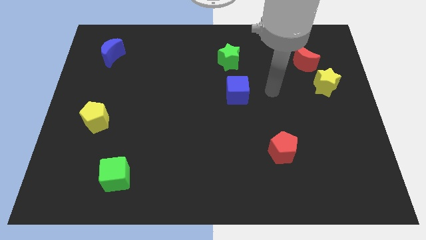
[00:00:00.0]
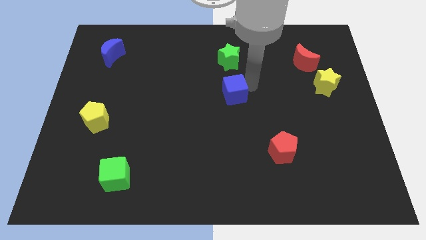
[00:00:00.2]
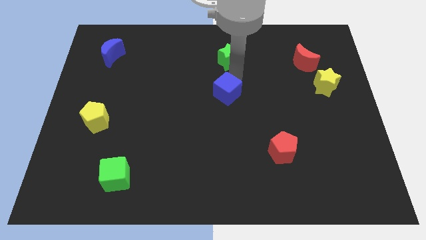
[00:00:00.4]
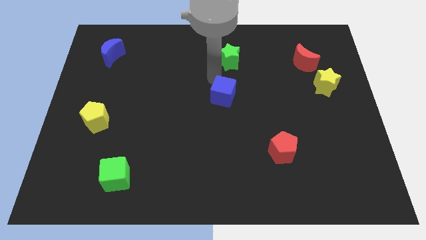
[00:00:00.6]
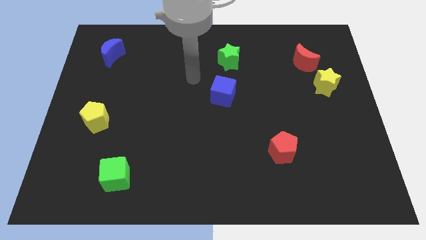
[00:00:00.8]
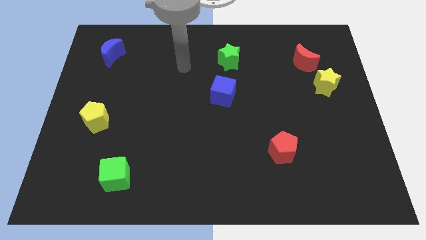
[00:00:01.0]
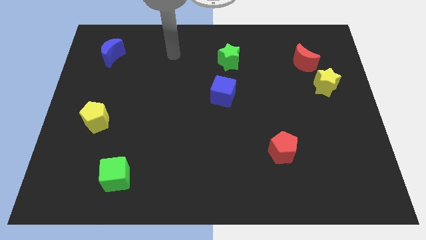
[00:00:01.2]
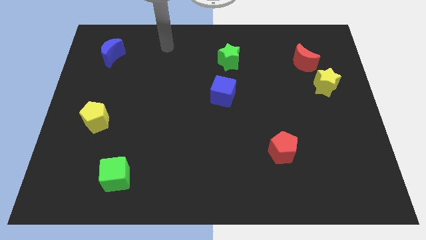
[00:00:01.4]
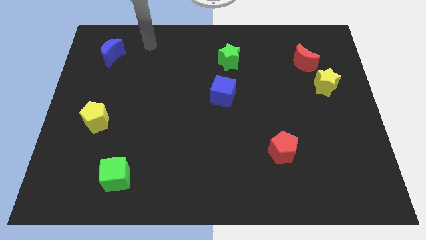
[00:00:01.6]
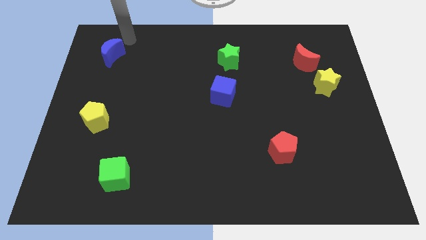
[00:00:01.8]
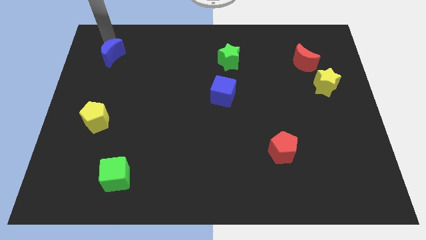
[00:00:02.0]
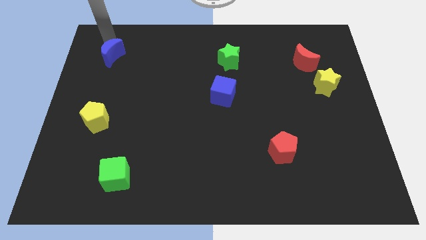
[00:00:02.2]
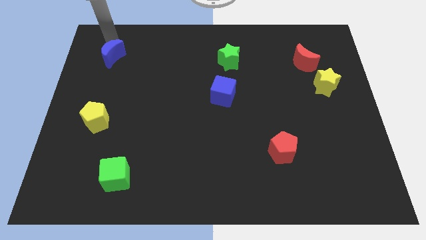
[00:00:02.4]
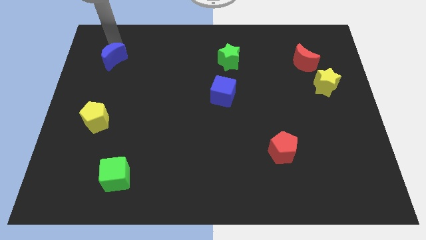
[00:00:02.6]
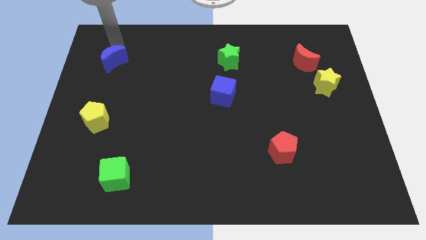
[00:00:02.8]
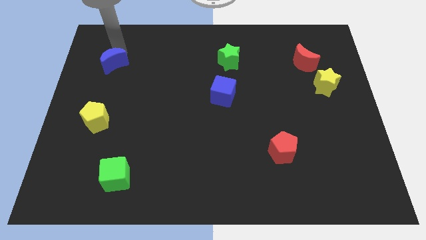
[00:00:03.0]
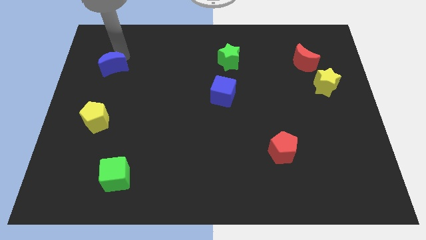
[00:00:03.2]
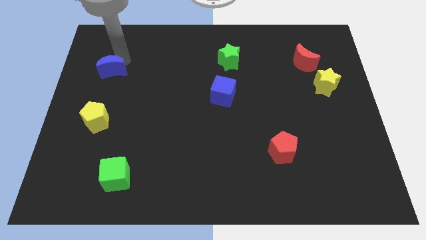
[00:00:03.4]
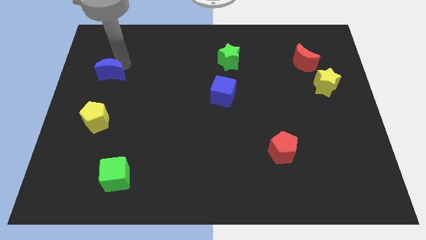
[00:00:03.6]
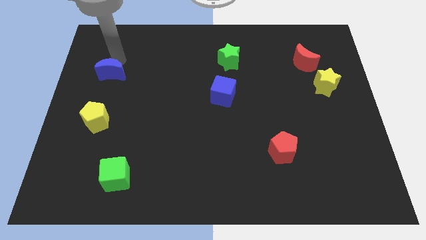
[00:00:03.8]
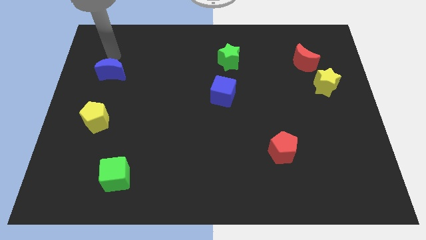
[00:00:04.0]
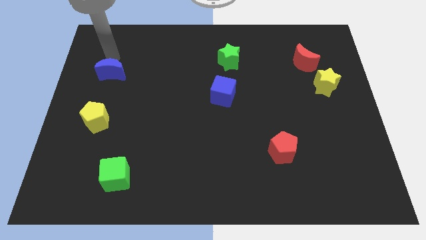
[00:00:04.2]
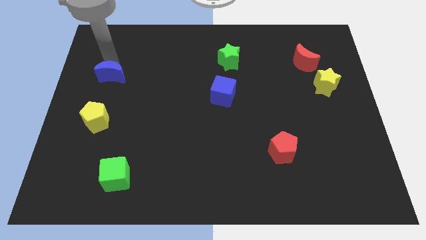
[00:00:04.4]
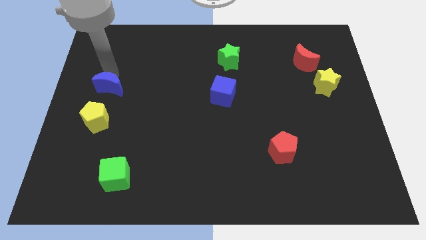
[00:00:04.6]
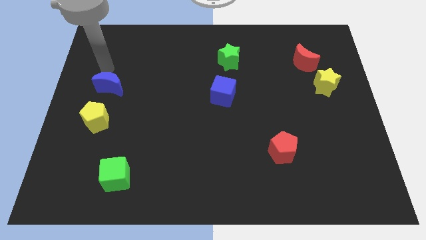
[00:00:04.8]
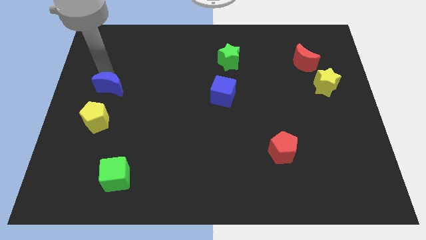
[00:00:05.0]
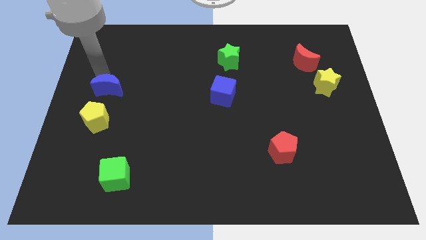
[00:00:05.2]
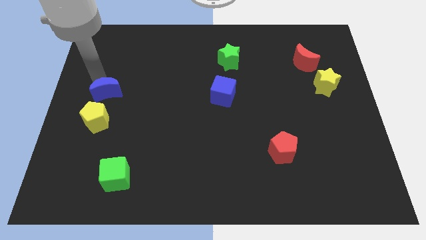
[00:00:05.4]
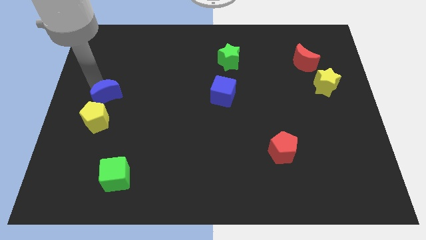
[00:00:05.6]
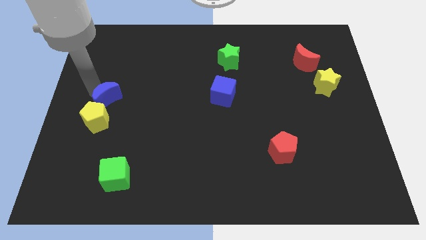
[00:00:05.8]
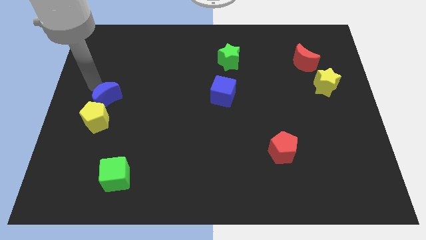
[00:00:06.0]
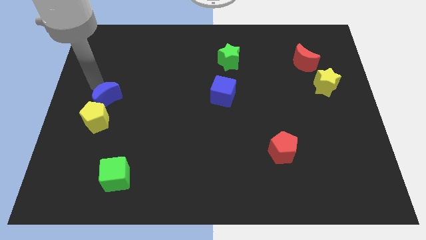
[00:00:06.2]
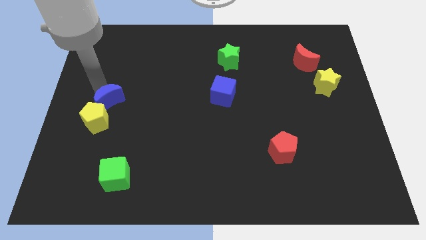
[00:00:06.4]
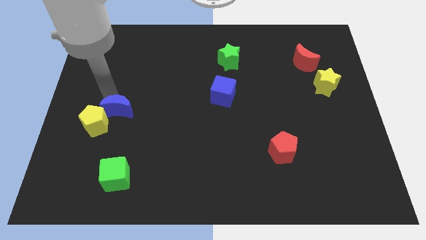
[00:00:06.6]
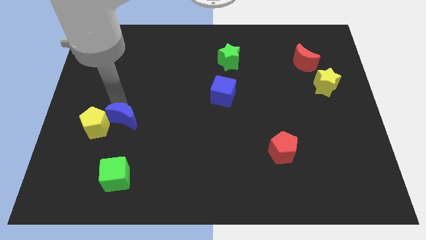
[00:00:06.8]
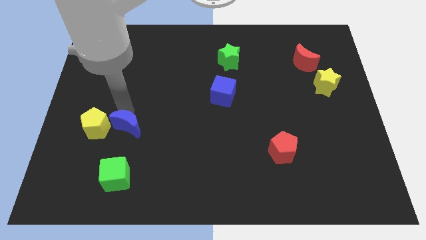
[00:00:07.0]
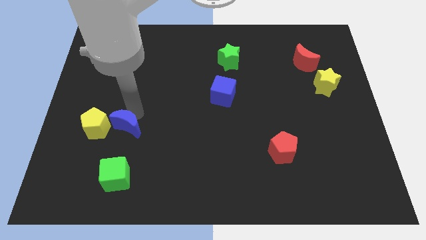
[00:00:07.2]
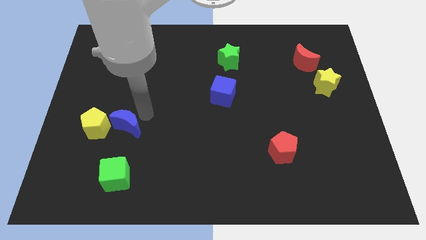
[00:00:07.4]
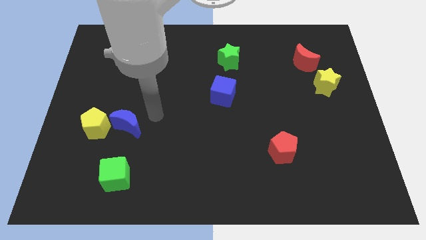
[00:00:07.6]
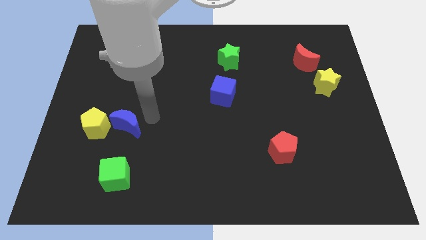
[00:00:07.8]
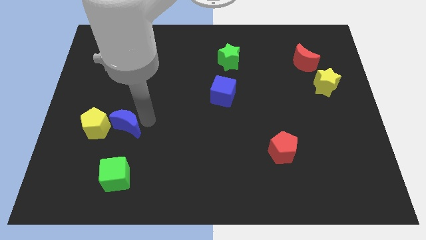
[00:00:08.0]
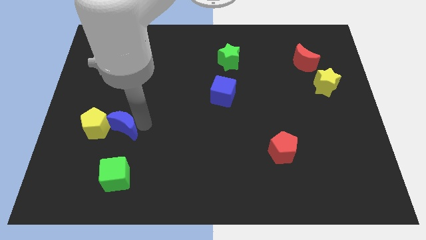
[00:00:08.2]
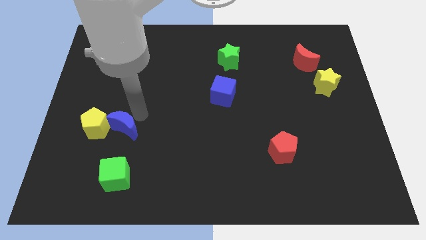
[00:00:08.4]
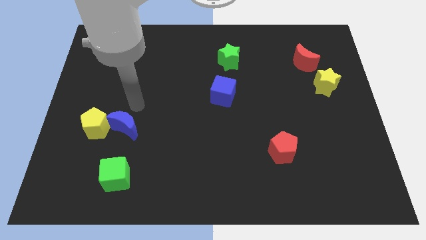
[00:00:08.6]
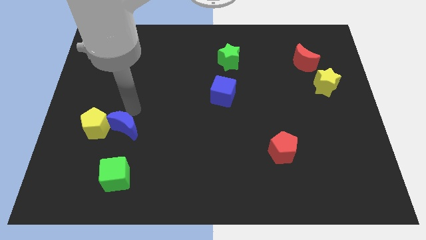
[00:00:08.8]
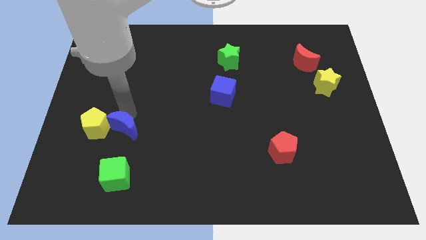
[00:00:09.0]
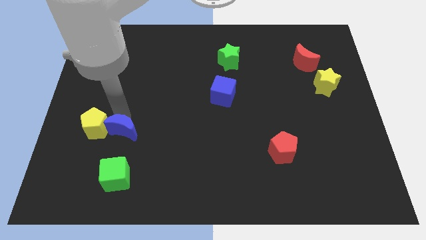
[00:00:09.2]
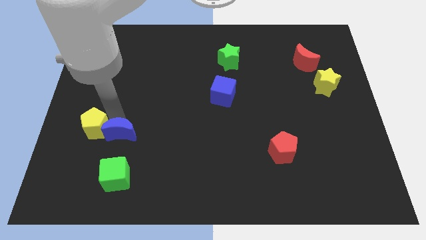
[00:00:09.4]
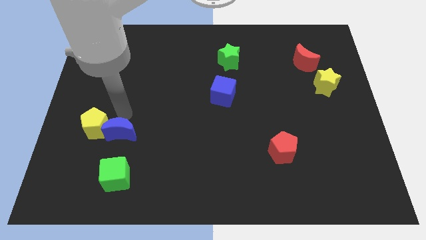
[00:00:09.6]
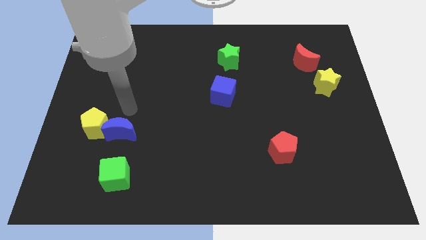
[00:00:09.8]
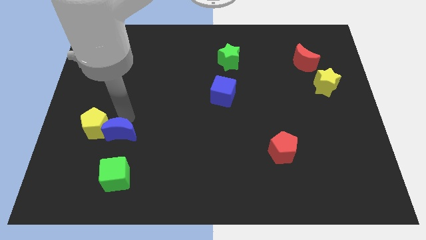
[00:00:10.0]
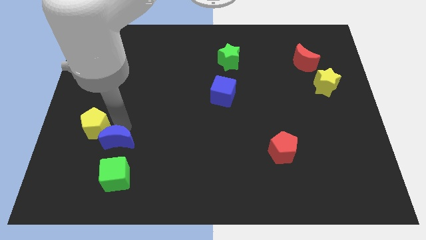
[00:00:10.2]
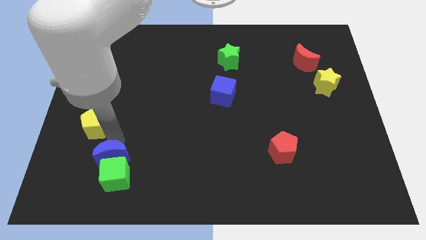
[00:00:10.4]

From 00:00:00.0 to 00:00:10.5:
move the blue moon to the green cube

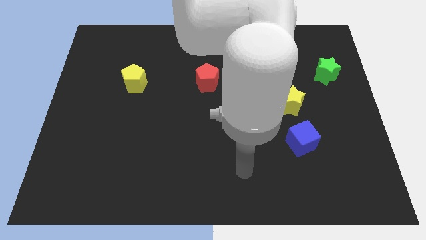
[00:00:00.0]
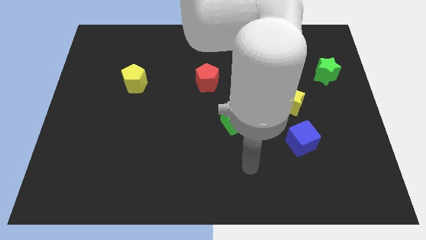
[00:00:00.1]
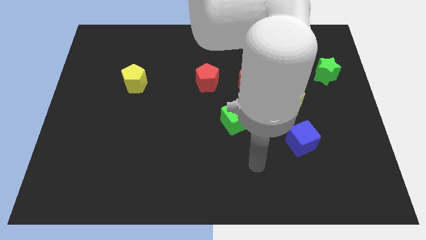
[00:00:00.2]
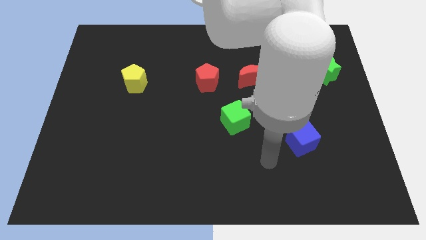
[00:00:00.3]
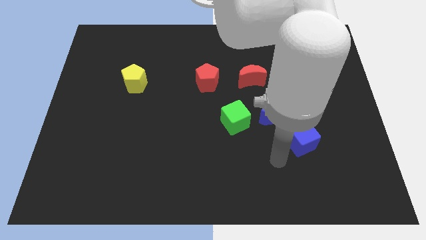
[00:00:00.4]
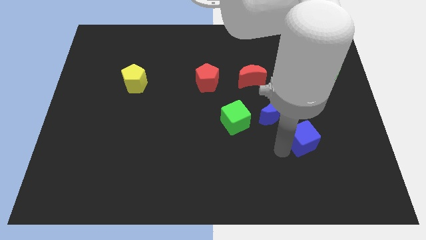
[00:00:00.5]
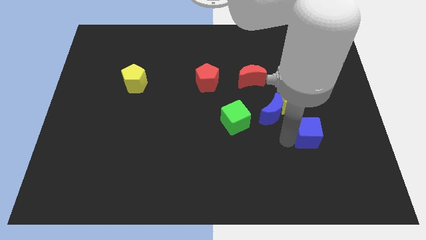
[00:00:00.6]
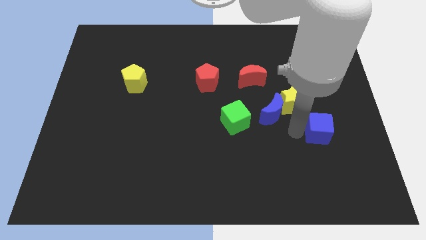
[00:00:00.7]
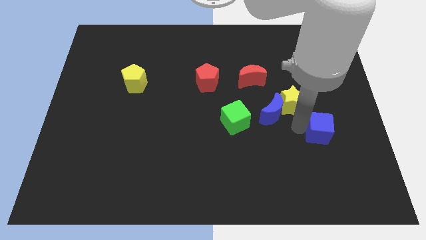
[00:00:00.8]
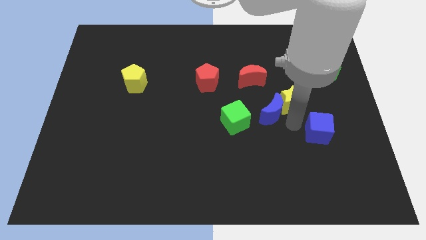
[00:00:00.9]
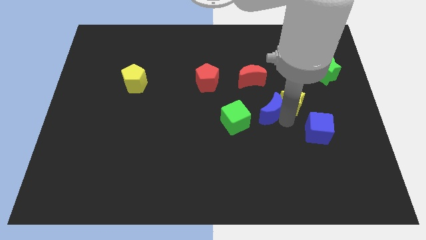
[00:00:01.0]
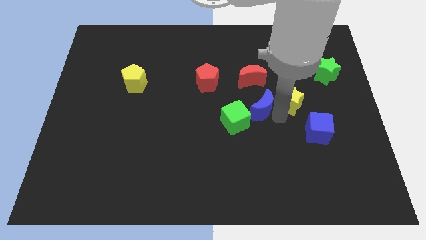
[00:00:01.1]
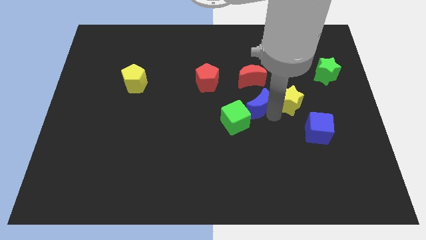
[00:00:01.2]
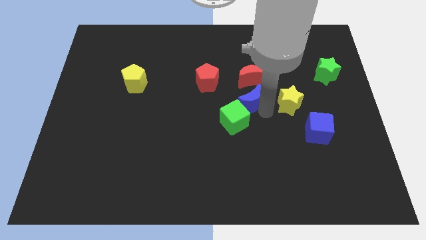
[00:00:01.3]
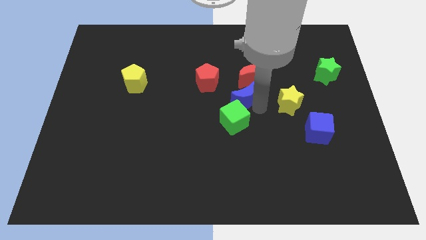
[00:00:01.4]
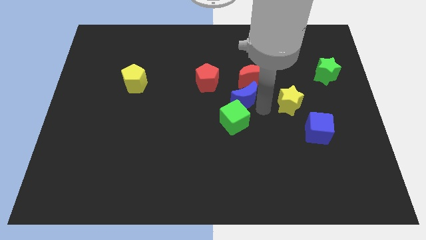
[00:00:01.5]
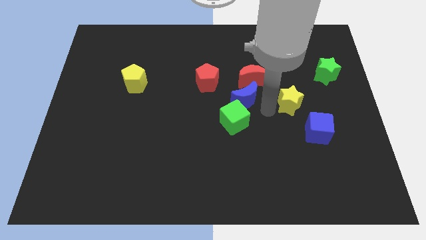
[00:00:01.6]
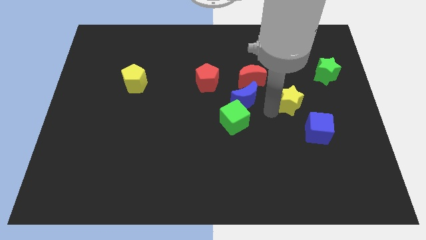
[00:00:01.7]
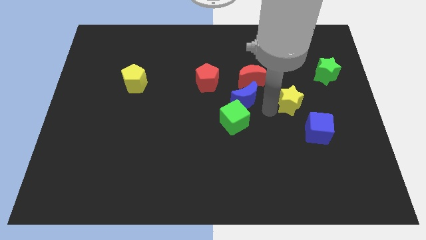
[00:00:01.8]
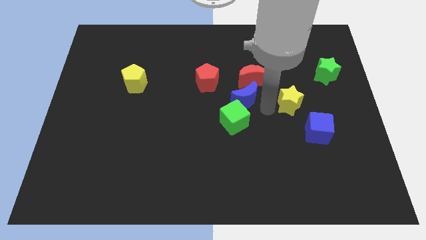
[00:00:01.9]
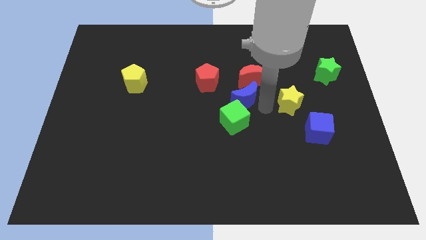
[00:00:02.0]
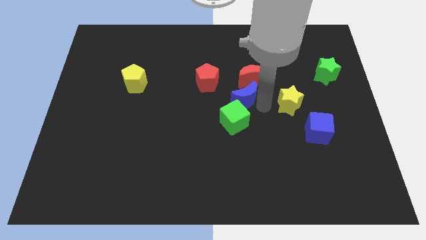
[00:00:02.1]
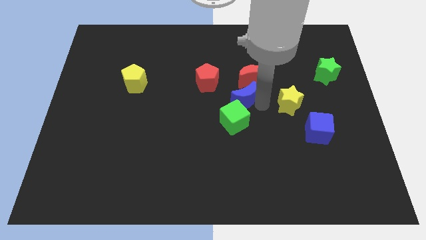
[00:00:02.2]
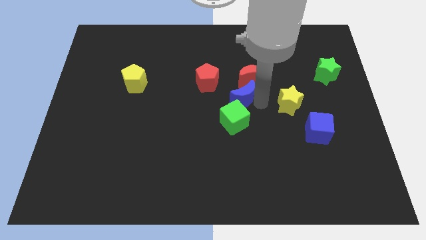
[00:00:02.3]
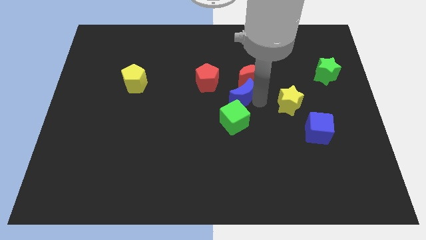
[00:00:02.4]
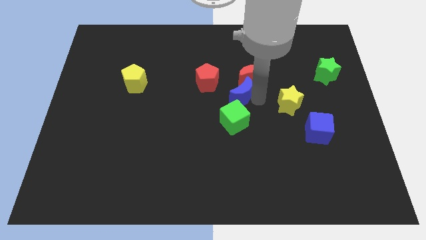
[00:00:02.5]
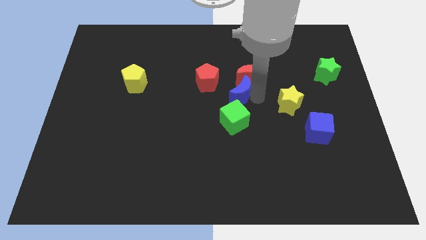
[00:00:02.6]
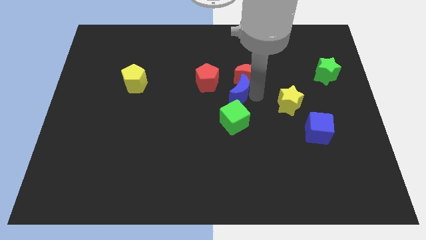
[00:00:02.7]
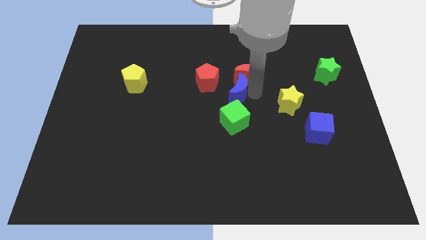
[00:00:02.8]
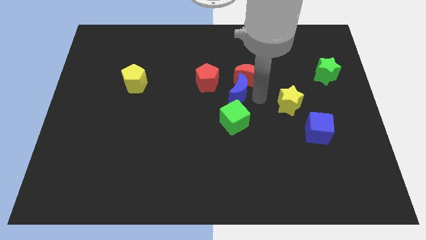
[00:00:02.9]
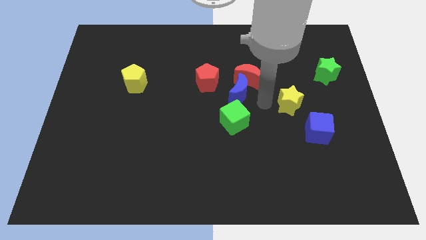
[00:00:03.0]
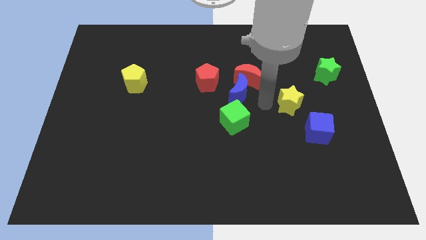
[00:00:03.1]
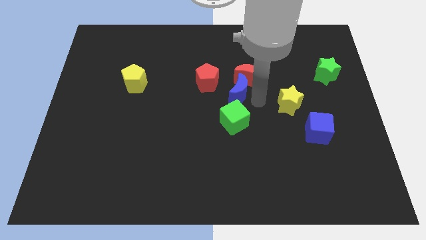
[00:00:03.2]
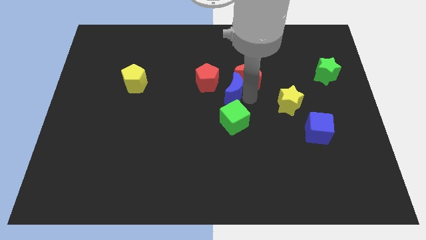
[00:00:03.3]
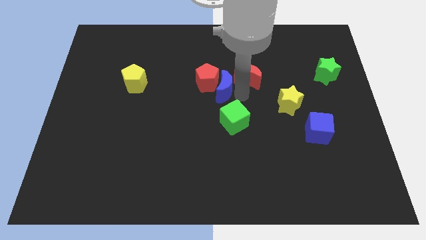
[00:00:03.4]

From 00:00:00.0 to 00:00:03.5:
put the blue moon close to the red pentagon
